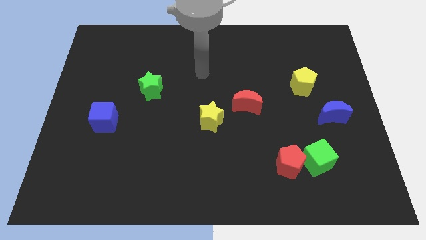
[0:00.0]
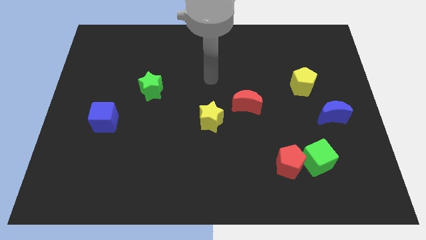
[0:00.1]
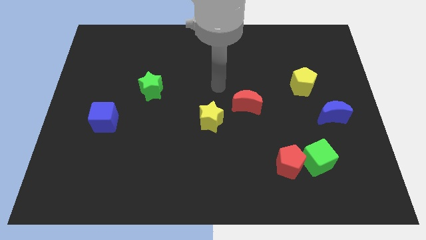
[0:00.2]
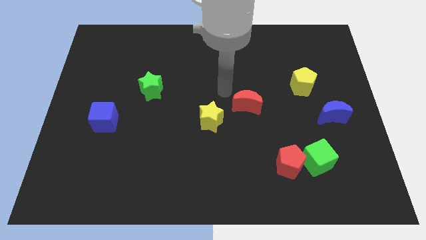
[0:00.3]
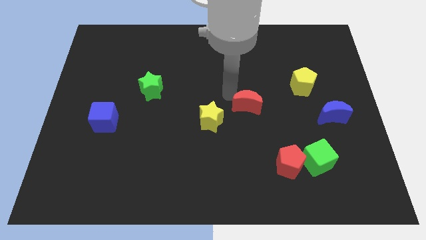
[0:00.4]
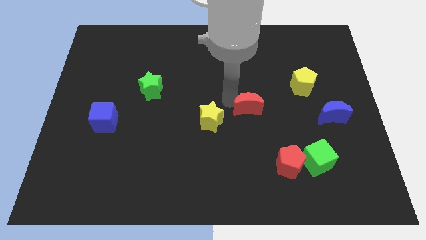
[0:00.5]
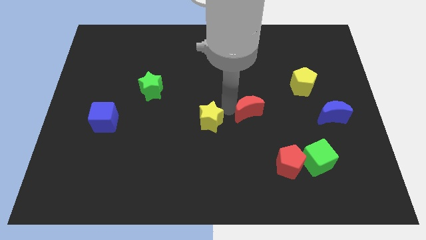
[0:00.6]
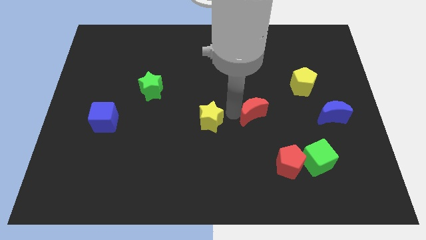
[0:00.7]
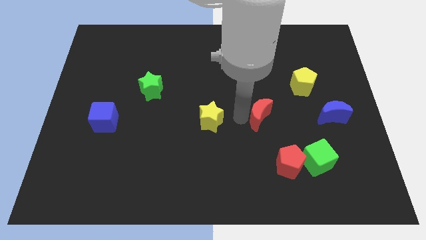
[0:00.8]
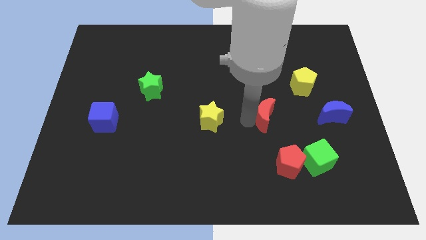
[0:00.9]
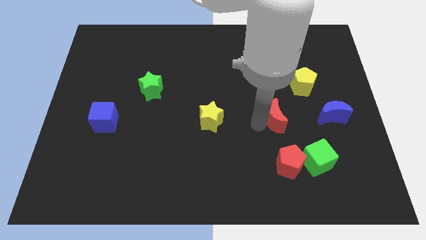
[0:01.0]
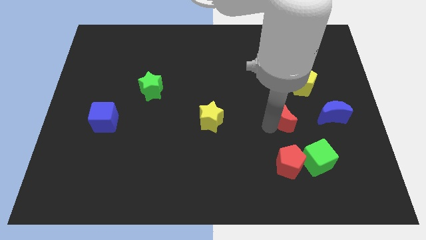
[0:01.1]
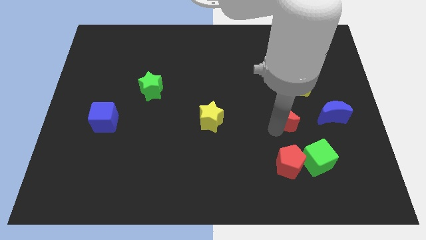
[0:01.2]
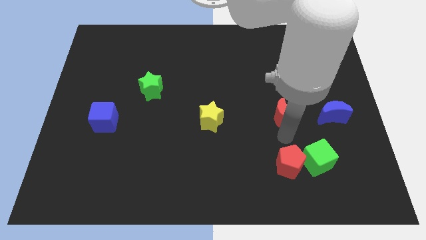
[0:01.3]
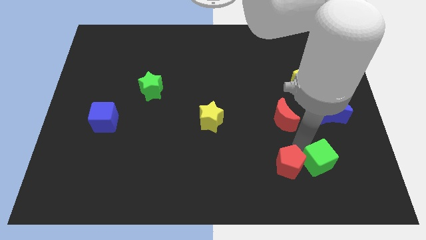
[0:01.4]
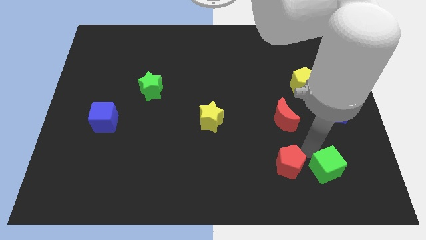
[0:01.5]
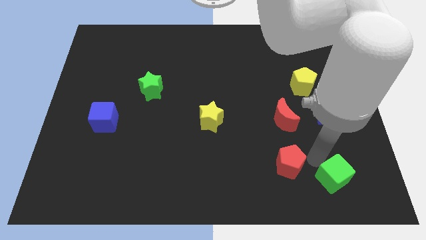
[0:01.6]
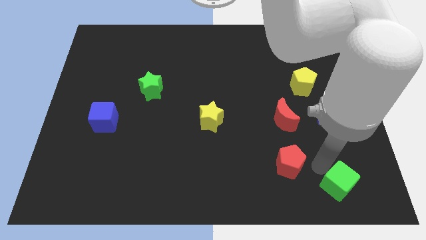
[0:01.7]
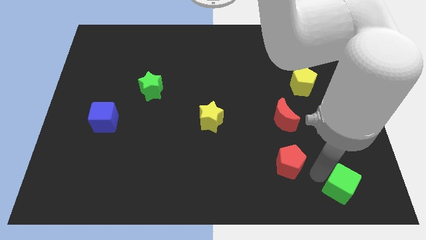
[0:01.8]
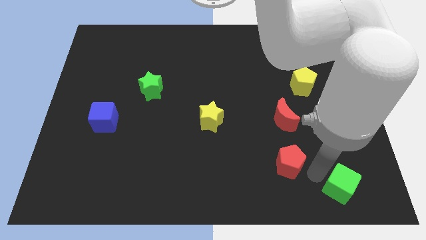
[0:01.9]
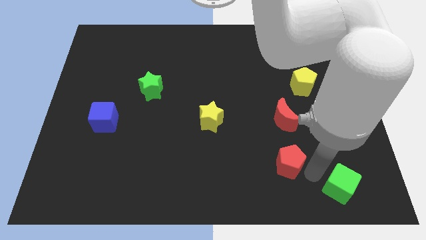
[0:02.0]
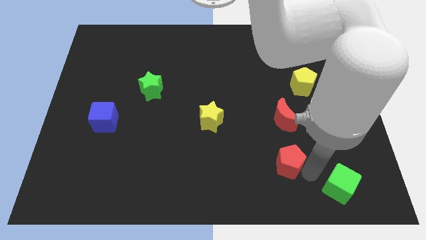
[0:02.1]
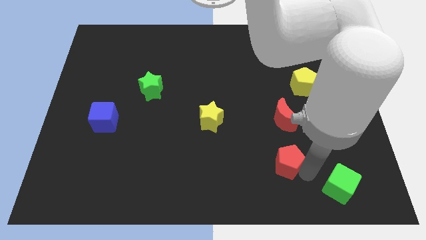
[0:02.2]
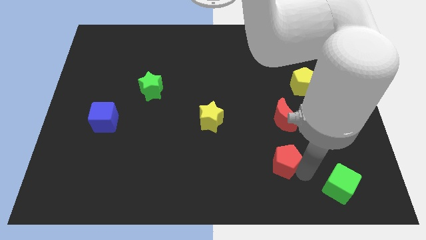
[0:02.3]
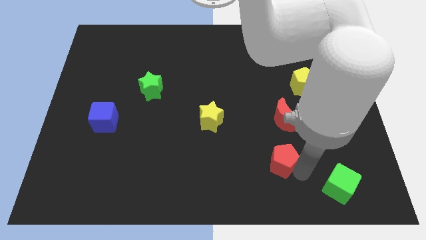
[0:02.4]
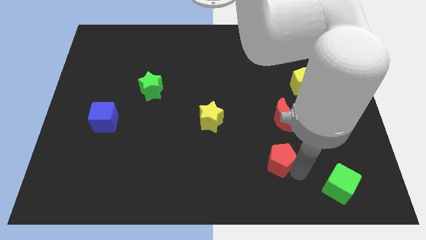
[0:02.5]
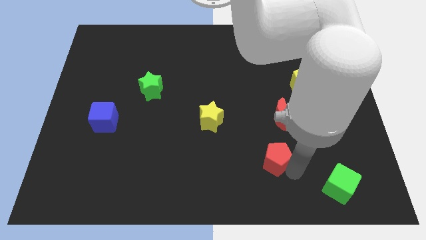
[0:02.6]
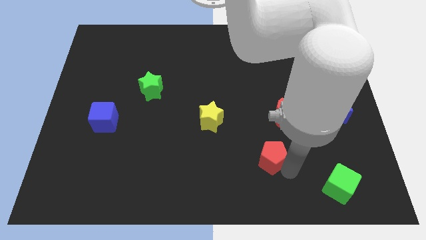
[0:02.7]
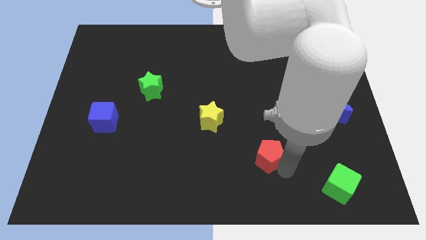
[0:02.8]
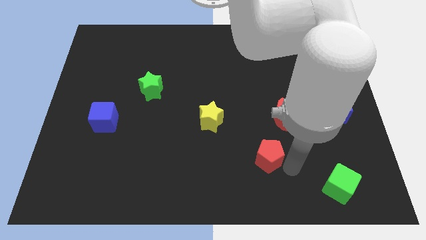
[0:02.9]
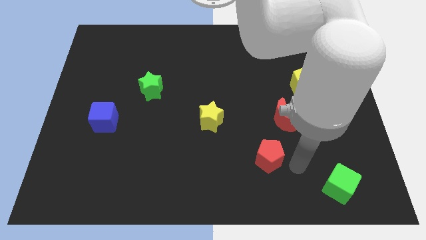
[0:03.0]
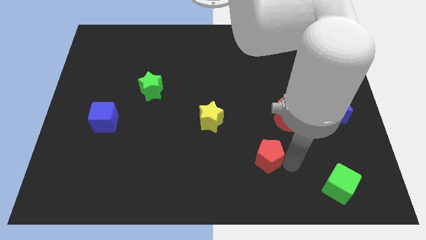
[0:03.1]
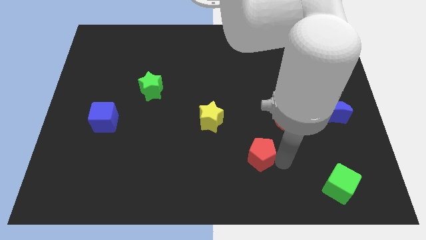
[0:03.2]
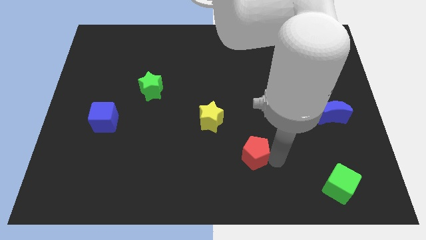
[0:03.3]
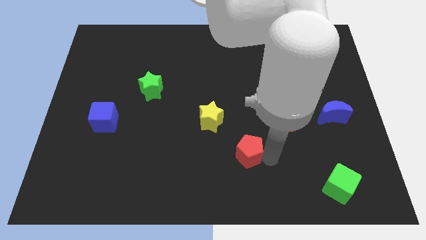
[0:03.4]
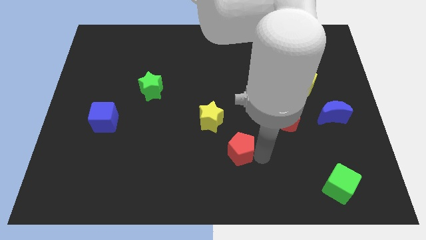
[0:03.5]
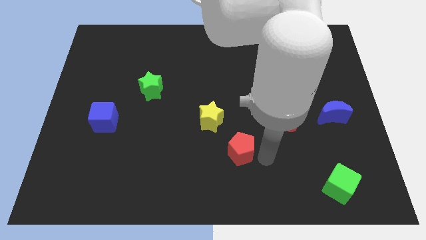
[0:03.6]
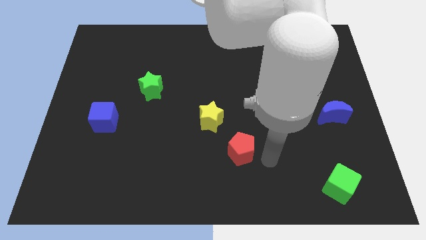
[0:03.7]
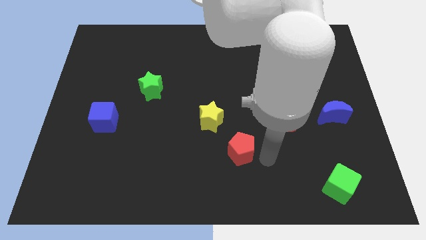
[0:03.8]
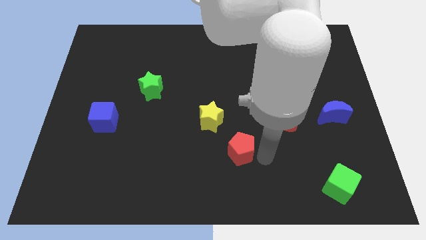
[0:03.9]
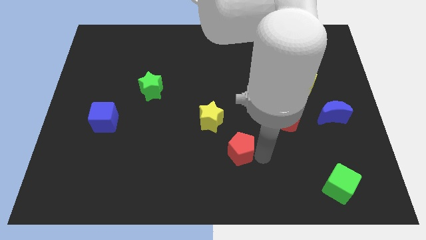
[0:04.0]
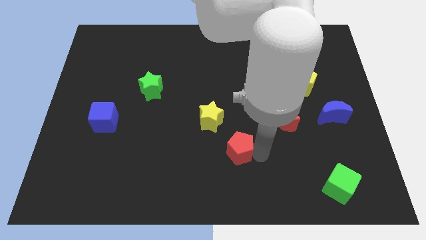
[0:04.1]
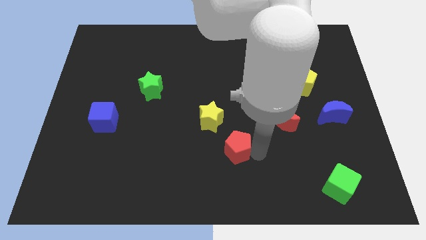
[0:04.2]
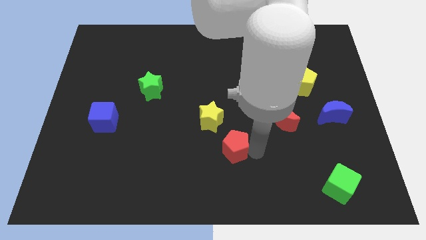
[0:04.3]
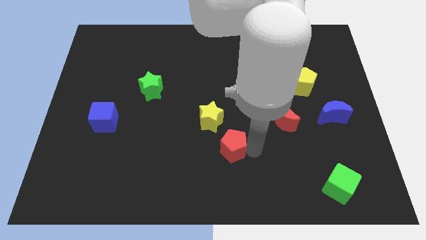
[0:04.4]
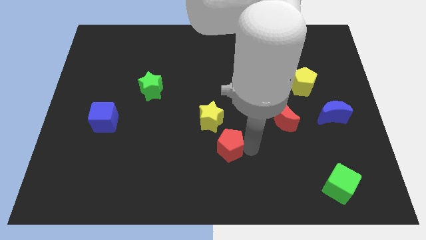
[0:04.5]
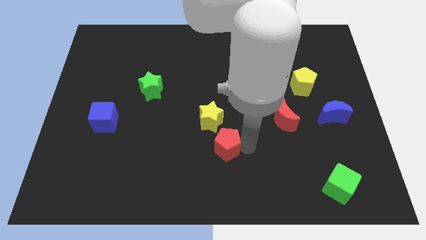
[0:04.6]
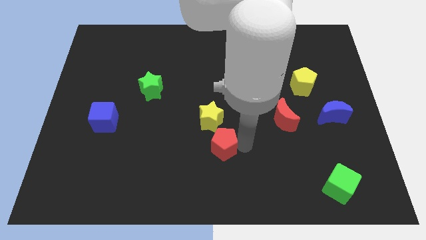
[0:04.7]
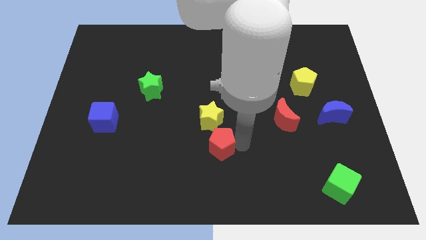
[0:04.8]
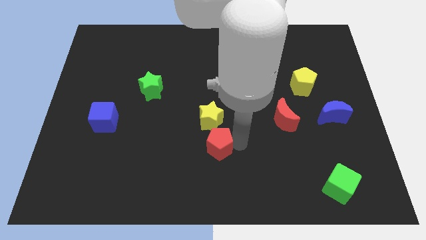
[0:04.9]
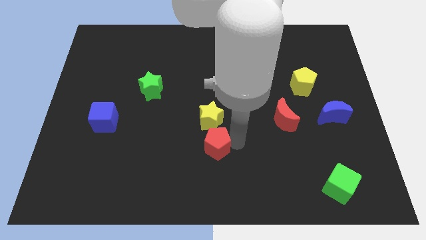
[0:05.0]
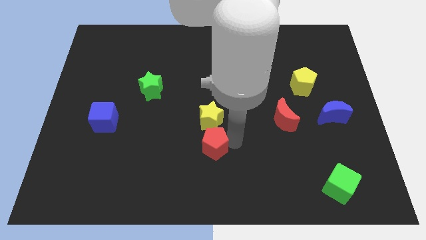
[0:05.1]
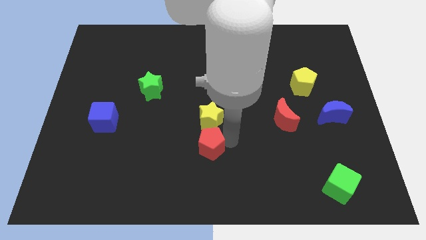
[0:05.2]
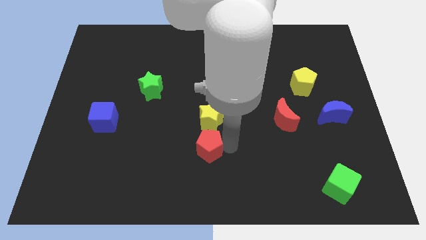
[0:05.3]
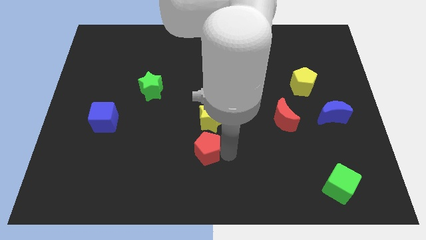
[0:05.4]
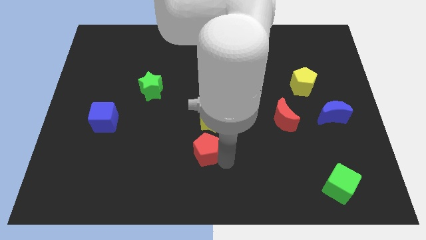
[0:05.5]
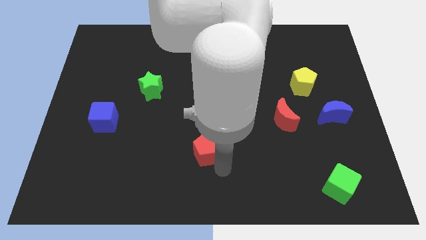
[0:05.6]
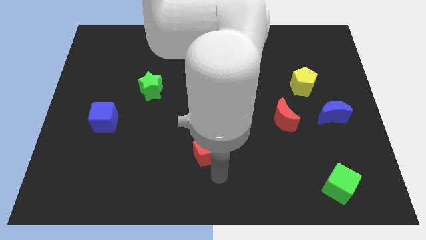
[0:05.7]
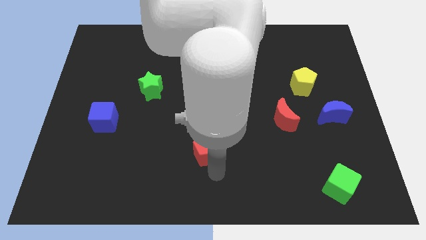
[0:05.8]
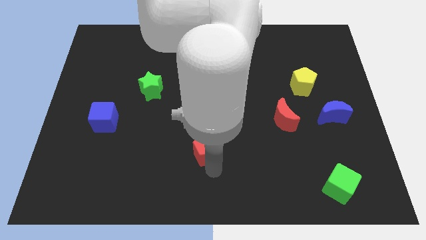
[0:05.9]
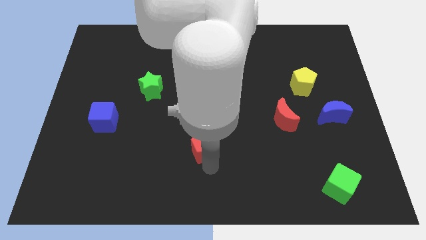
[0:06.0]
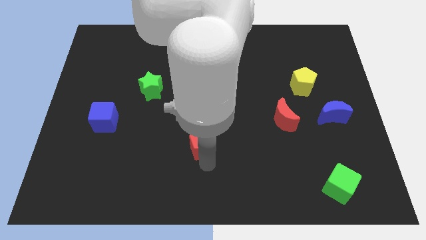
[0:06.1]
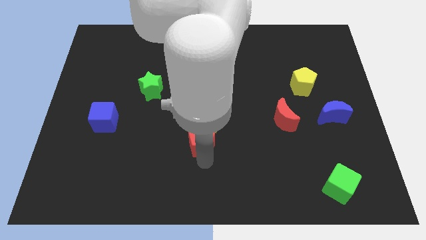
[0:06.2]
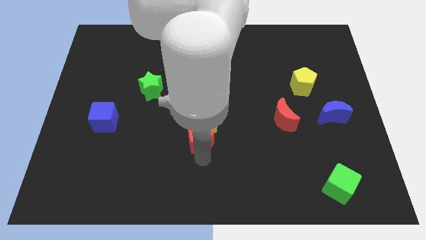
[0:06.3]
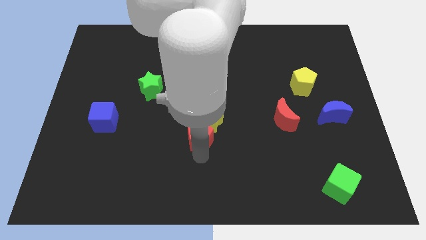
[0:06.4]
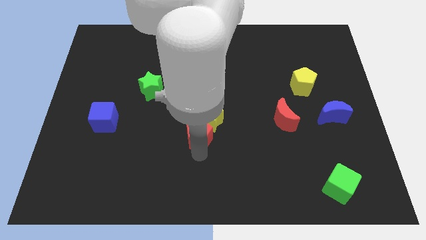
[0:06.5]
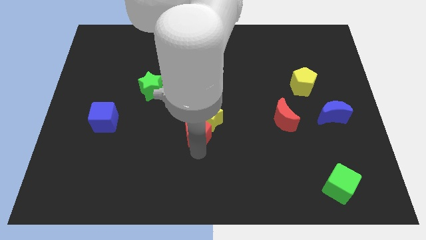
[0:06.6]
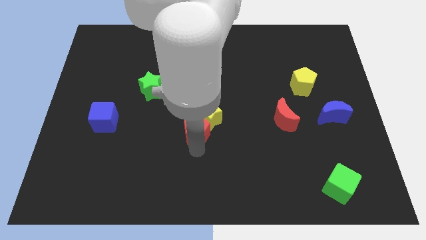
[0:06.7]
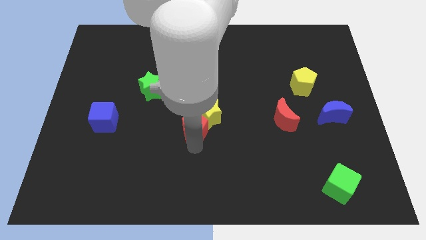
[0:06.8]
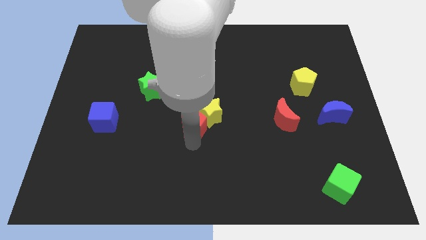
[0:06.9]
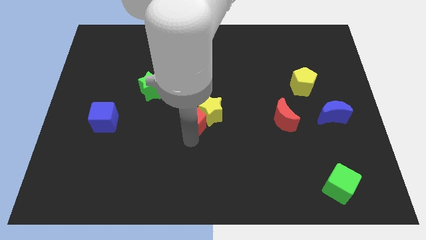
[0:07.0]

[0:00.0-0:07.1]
push the red pentagon diagonally up and left

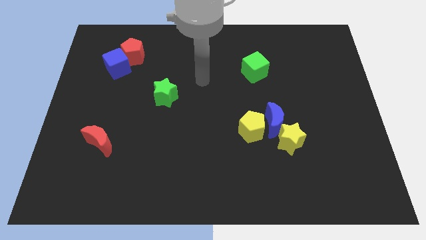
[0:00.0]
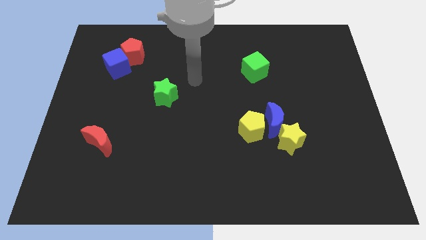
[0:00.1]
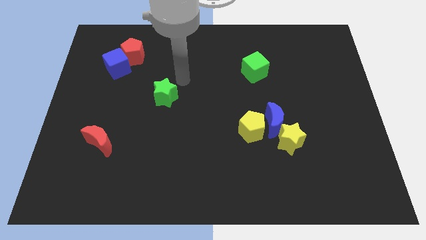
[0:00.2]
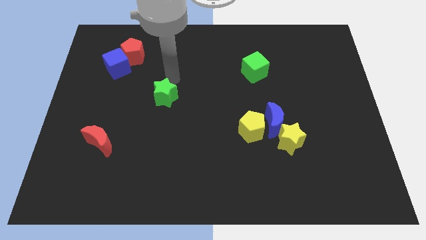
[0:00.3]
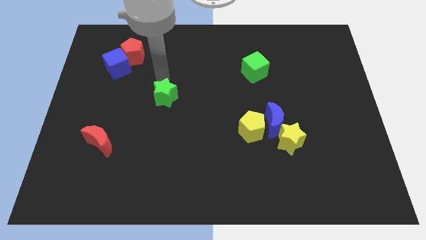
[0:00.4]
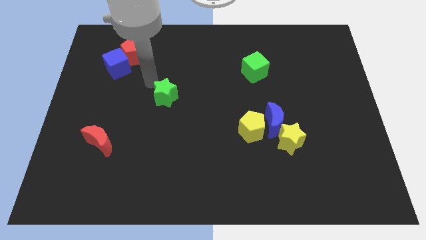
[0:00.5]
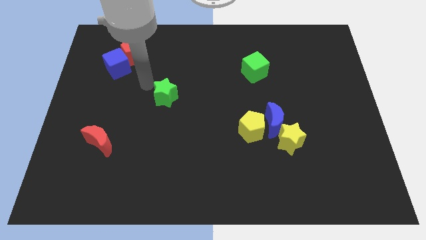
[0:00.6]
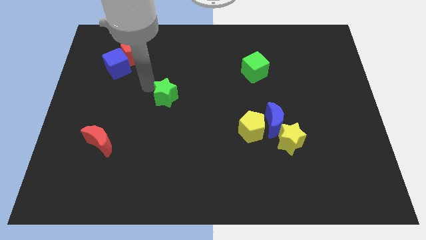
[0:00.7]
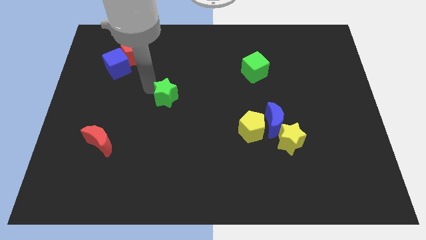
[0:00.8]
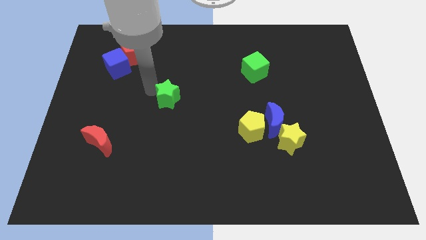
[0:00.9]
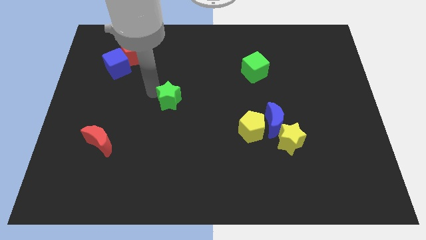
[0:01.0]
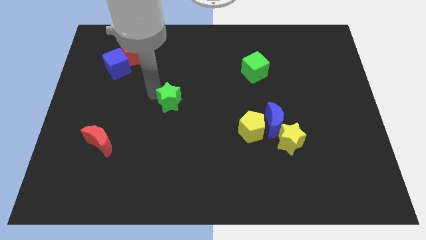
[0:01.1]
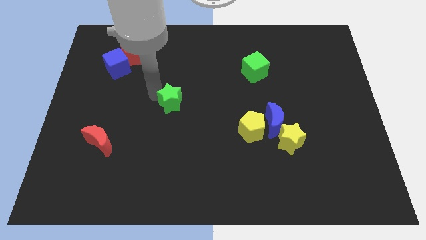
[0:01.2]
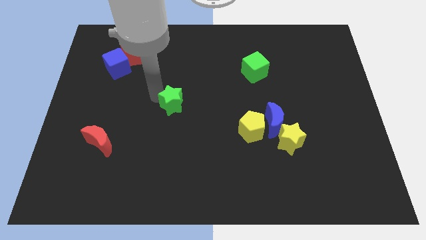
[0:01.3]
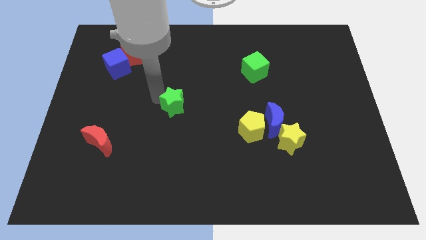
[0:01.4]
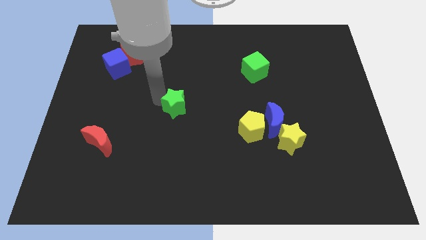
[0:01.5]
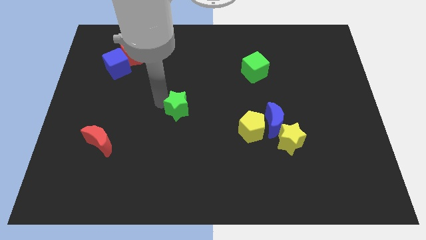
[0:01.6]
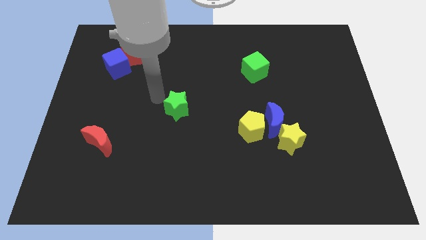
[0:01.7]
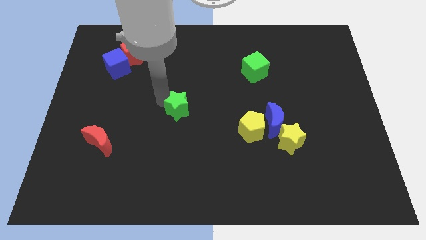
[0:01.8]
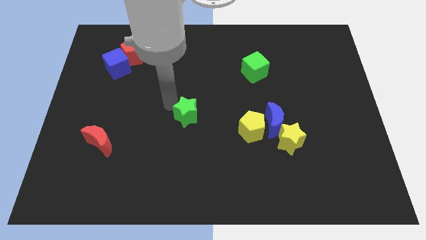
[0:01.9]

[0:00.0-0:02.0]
move the green star a bit downwards and to the right
